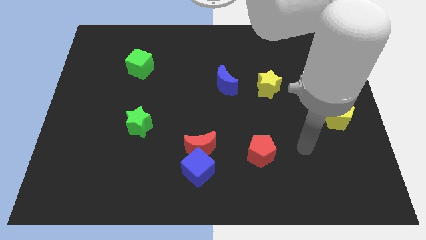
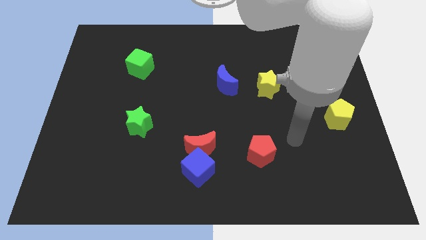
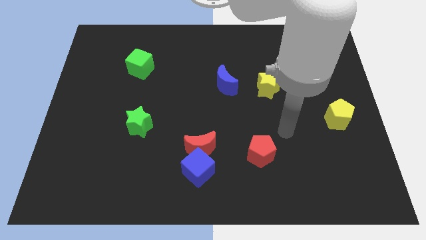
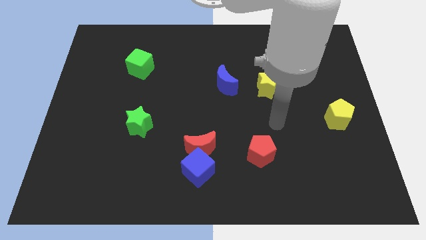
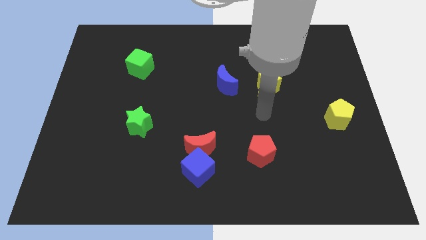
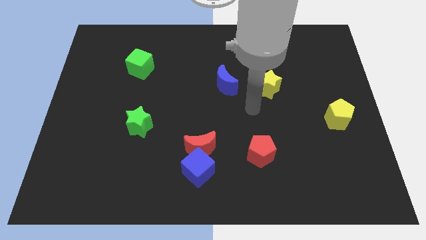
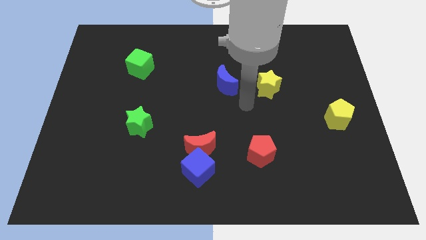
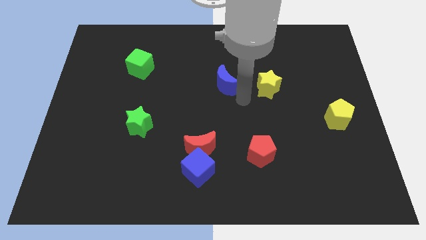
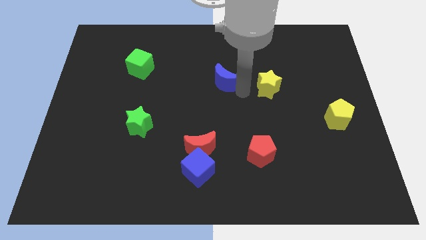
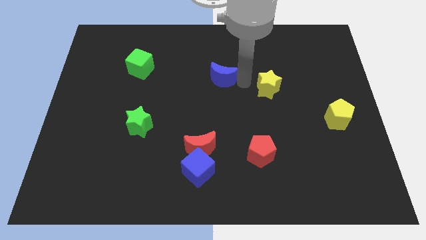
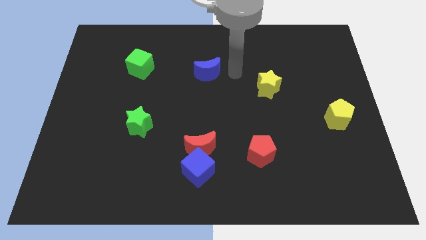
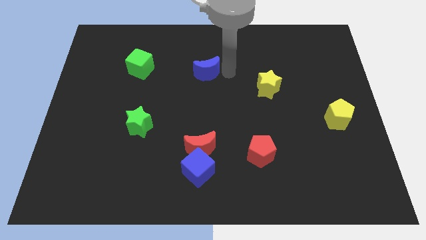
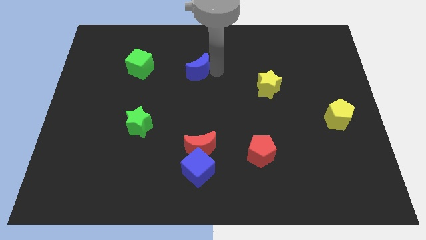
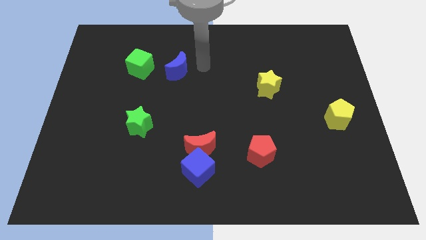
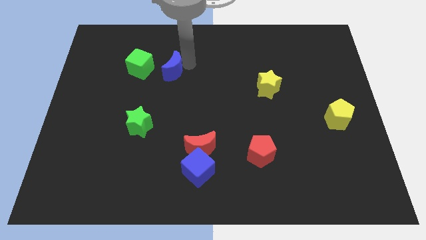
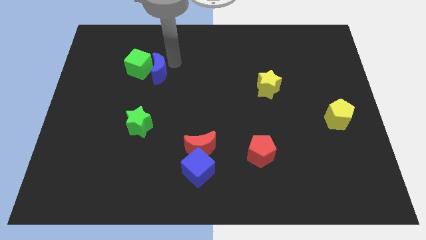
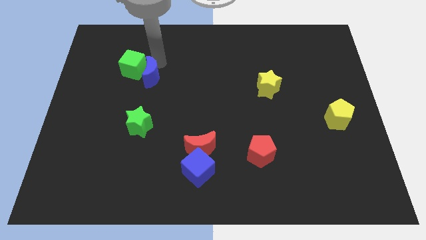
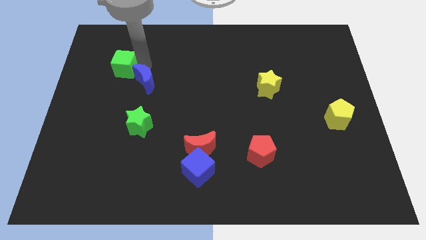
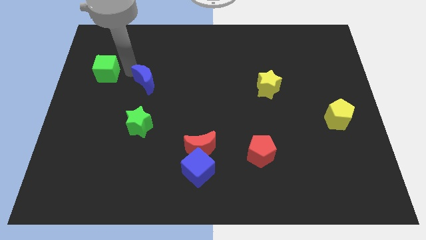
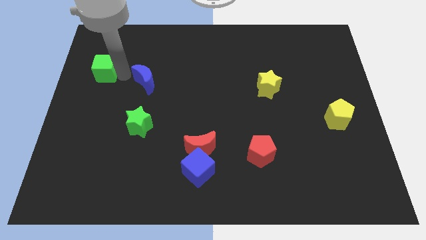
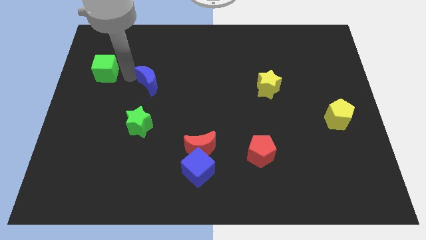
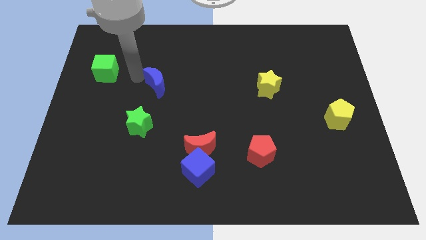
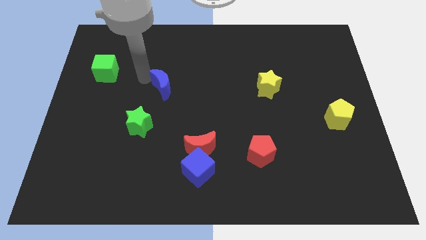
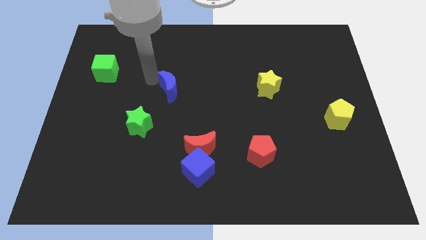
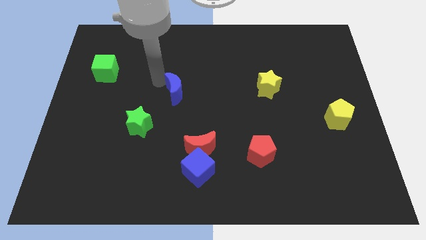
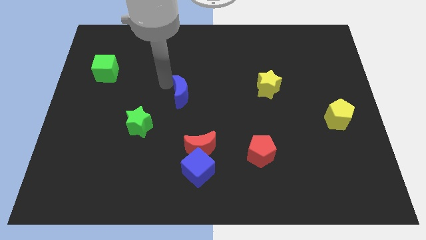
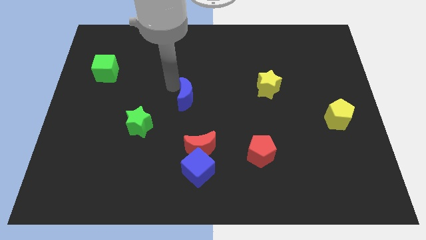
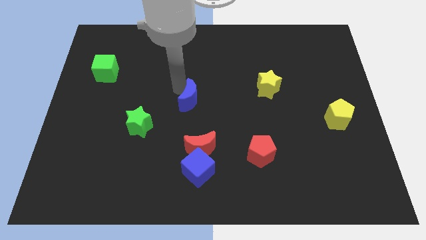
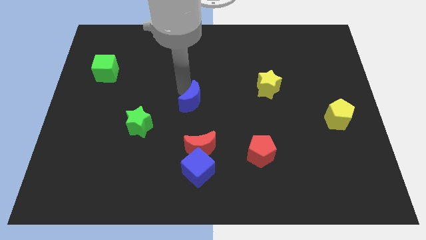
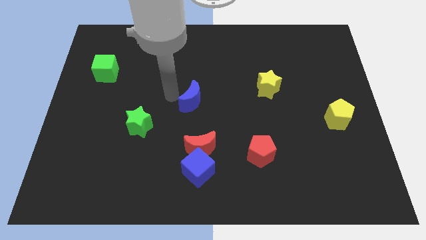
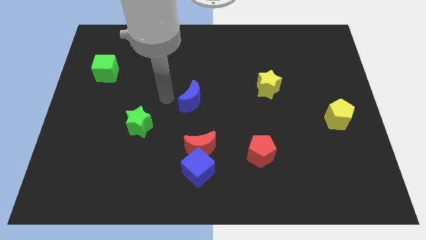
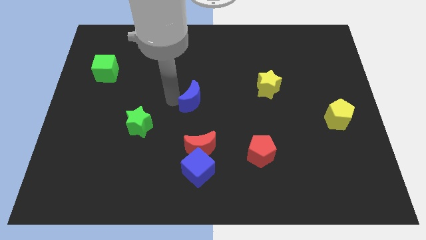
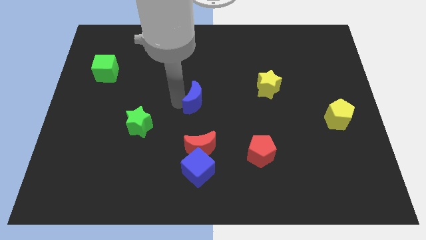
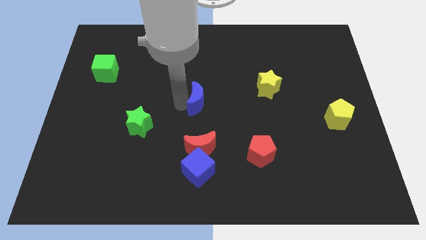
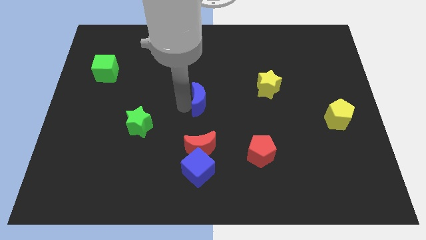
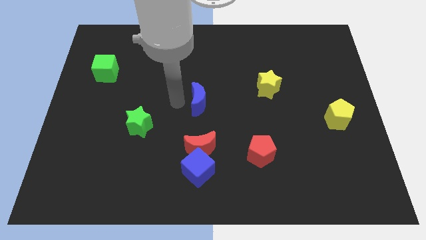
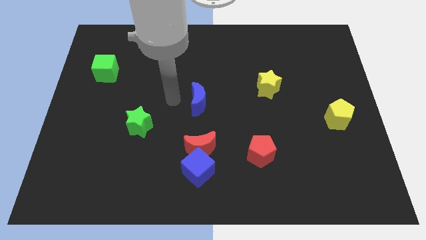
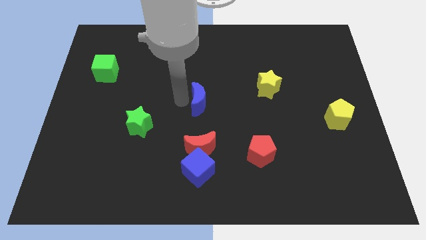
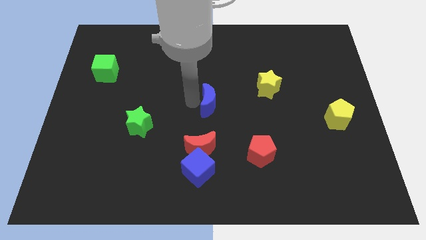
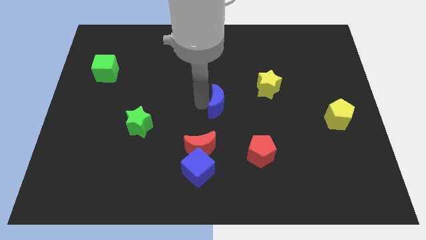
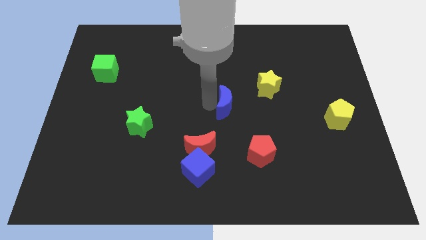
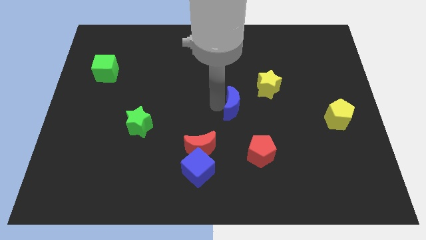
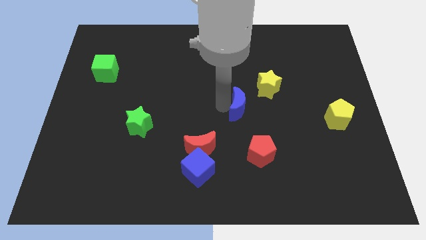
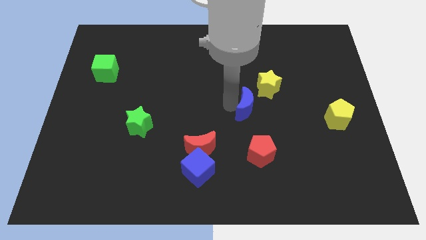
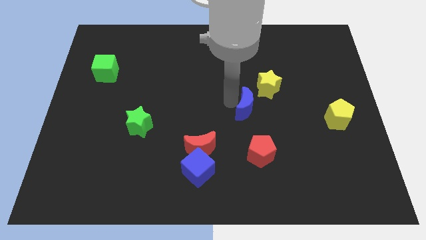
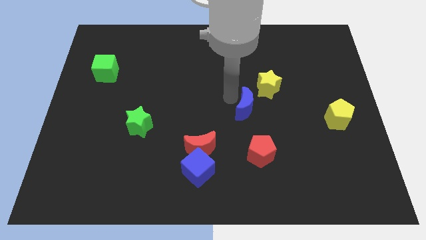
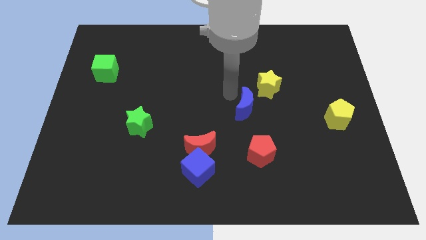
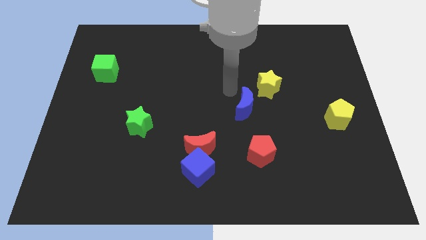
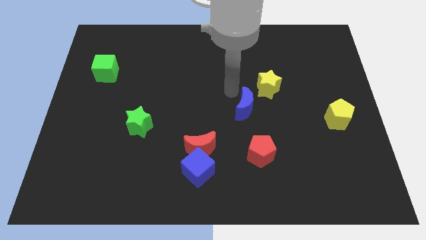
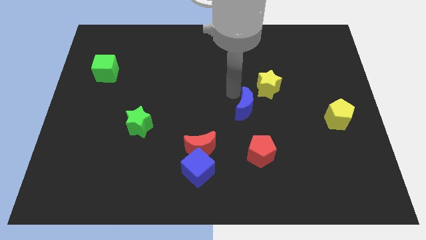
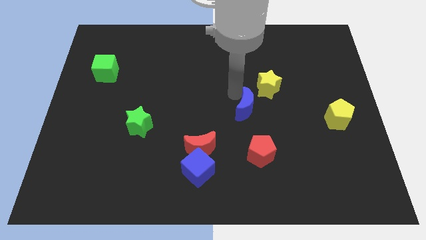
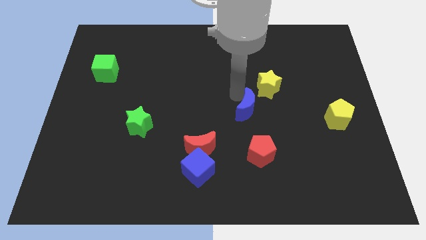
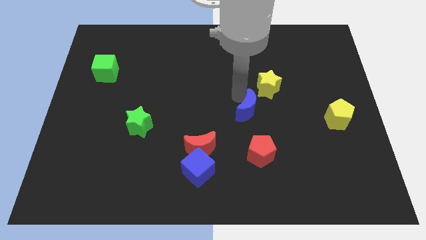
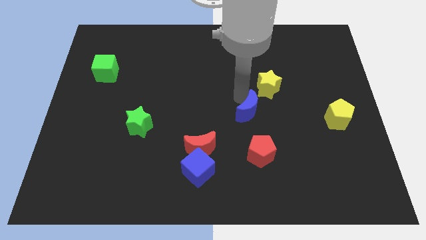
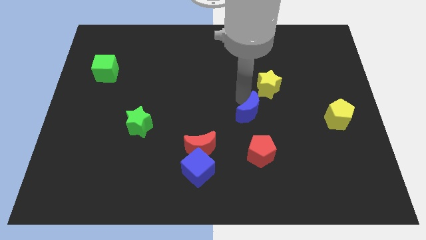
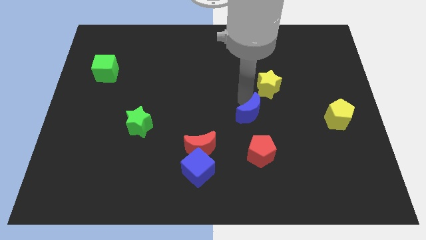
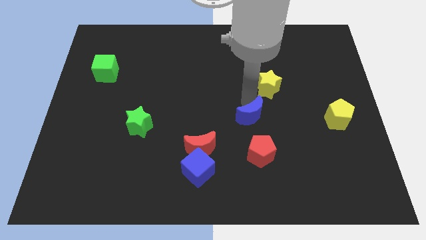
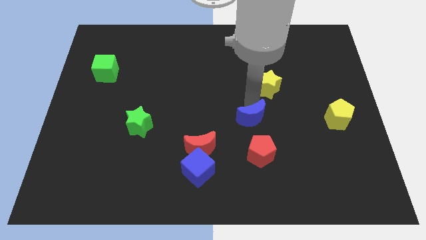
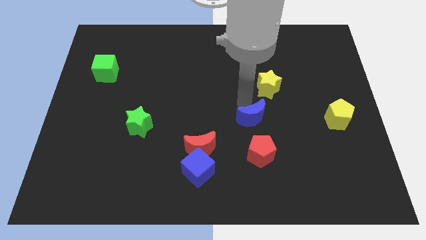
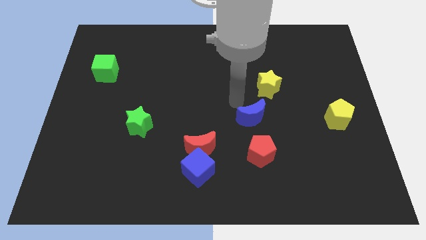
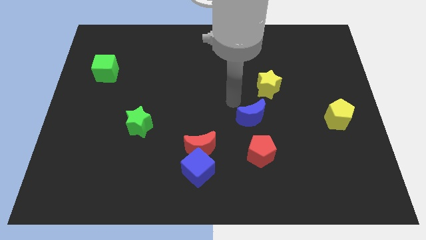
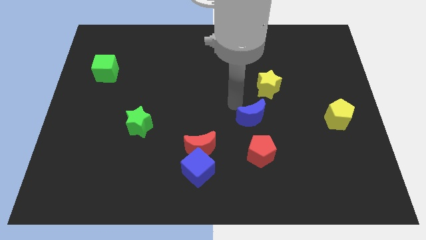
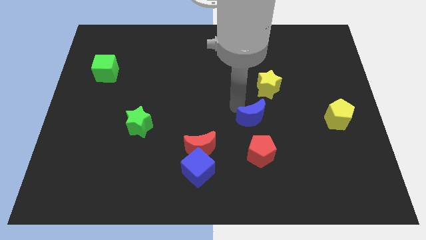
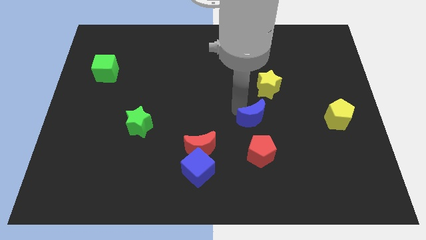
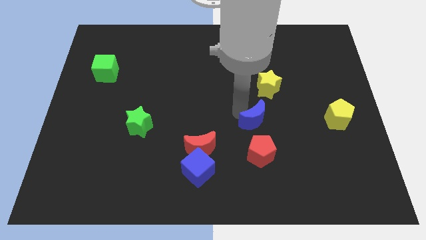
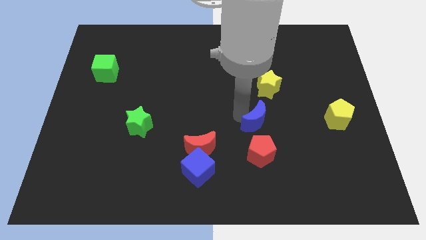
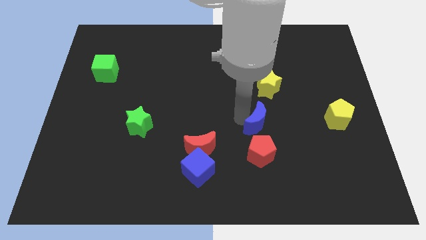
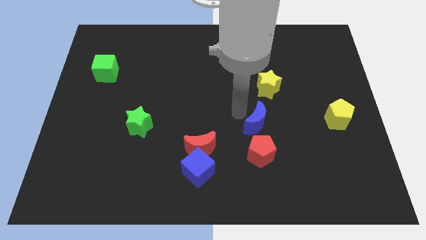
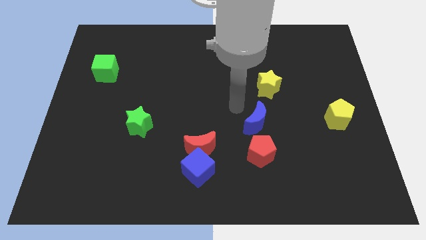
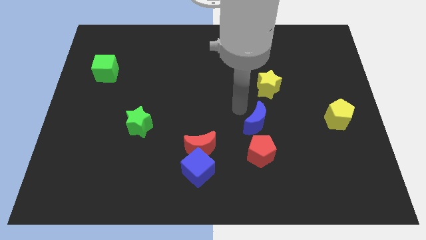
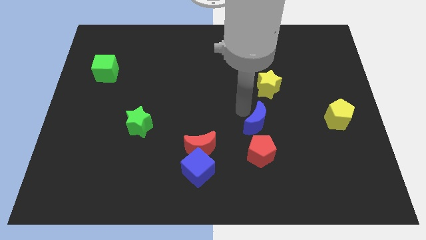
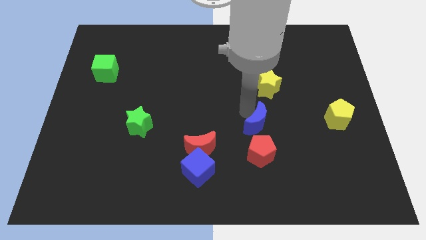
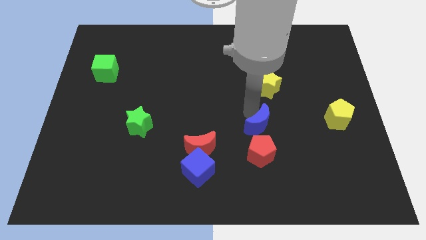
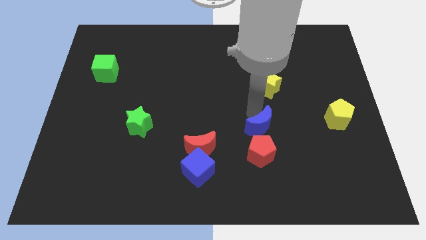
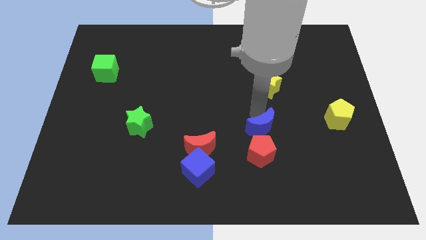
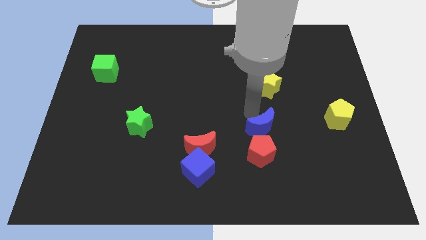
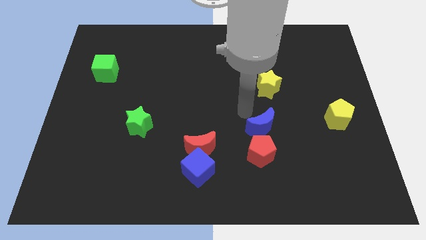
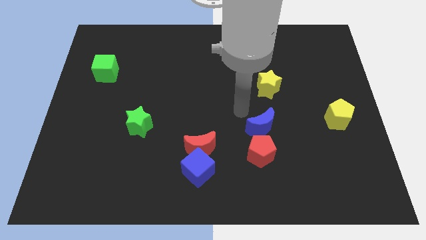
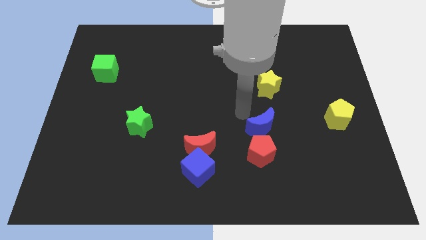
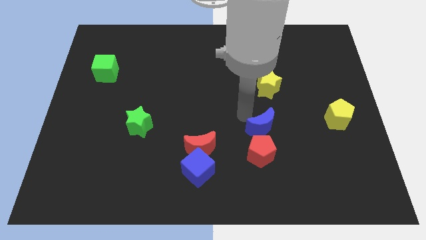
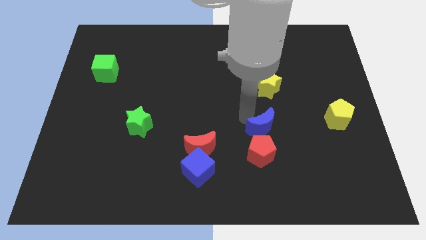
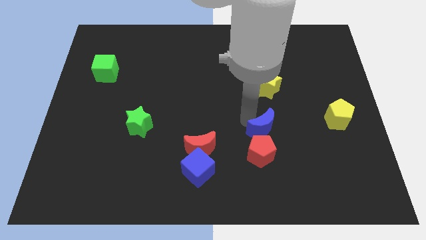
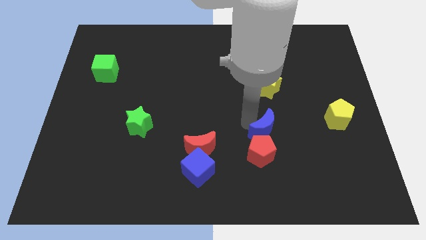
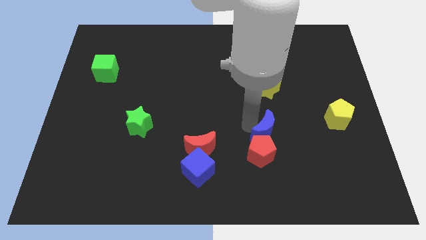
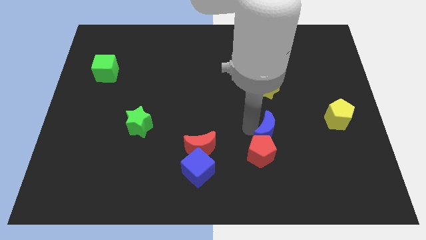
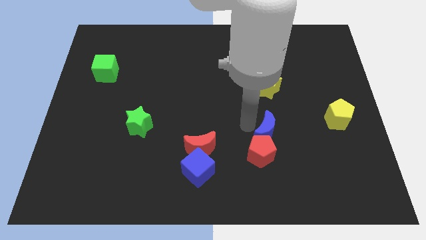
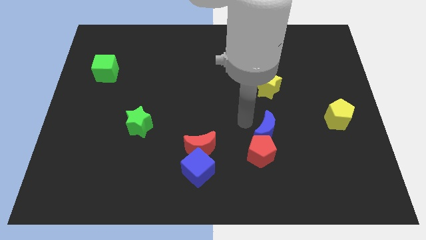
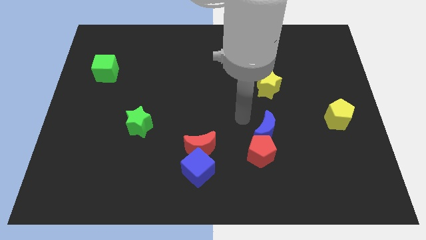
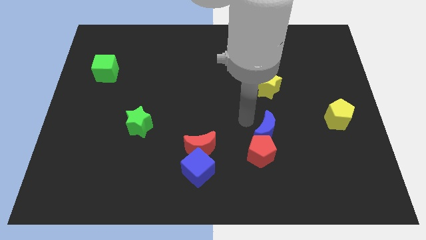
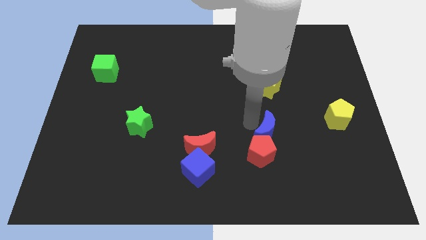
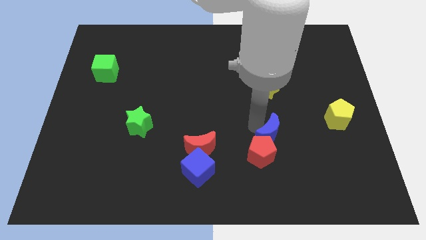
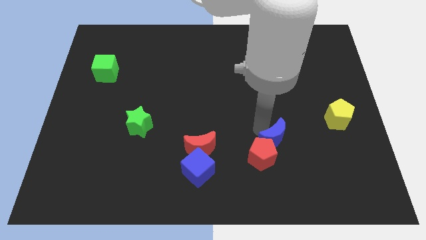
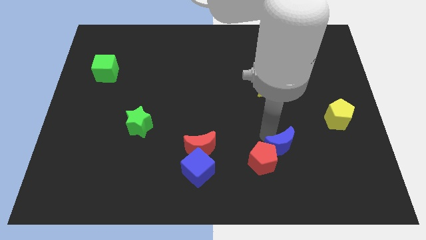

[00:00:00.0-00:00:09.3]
slide the blue moon downwards and then to the right
